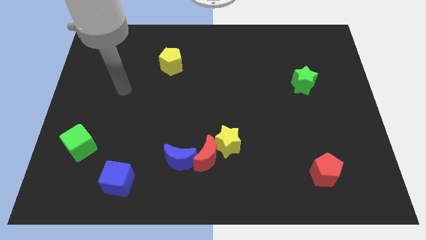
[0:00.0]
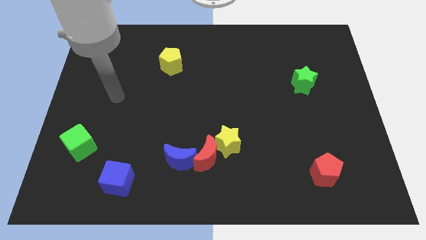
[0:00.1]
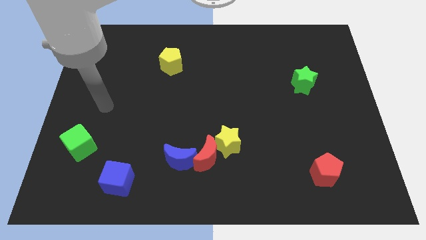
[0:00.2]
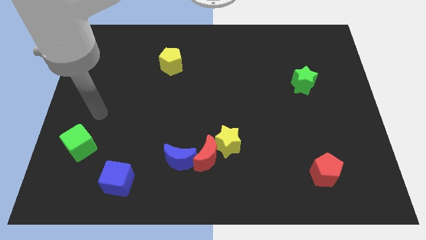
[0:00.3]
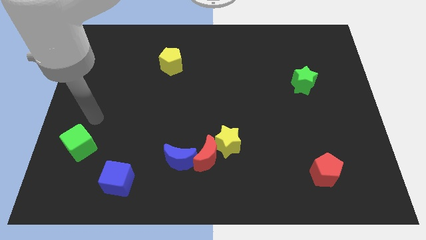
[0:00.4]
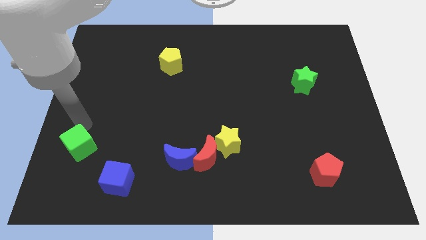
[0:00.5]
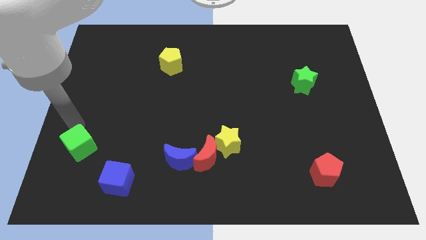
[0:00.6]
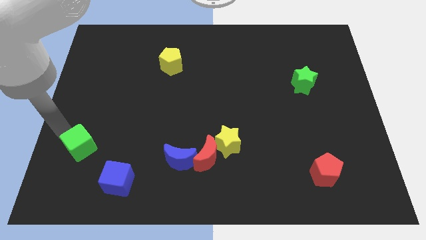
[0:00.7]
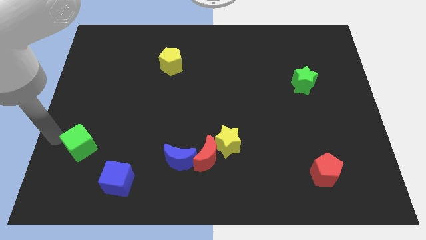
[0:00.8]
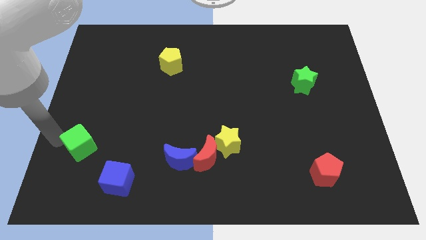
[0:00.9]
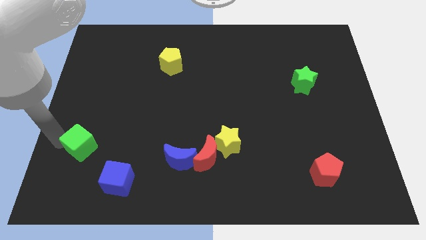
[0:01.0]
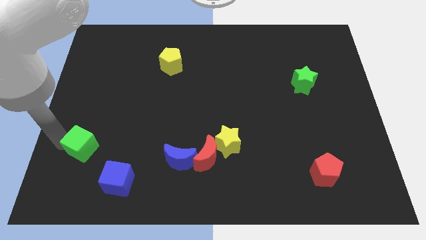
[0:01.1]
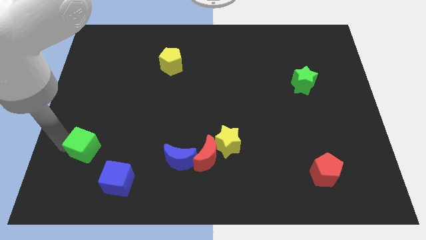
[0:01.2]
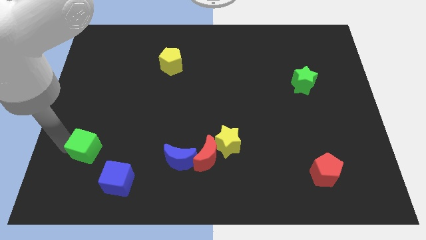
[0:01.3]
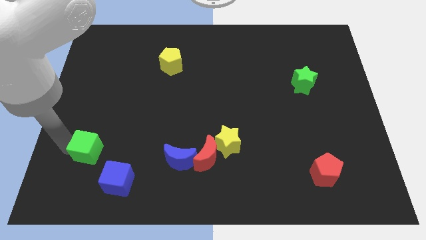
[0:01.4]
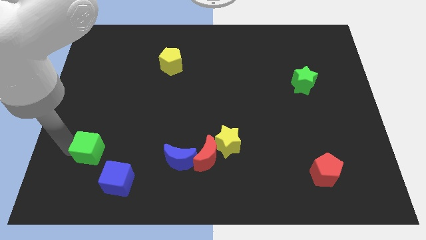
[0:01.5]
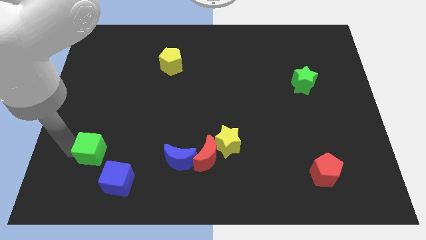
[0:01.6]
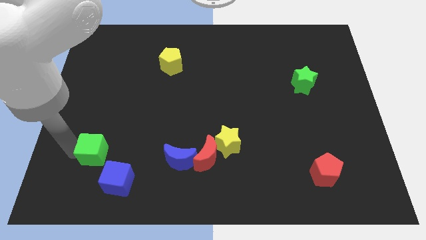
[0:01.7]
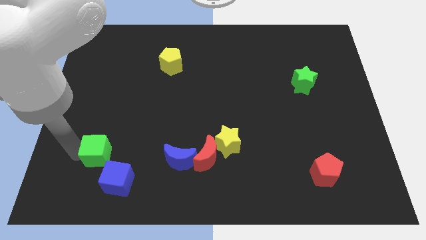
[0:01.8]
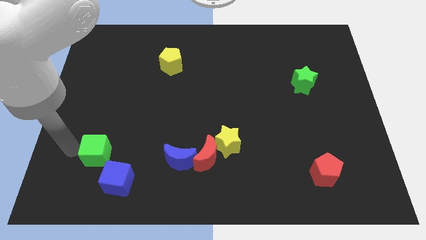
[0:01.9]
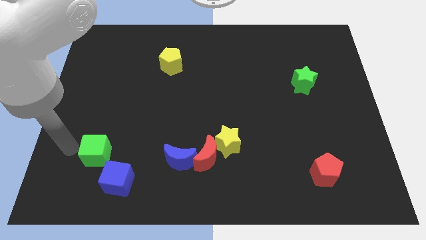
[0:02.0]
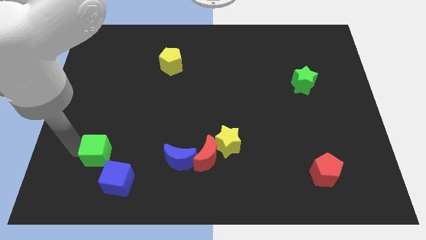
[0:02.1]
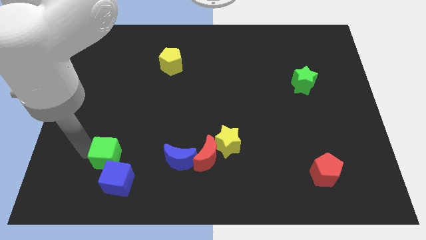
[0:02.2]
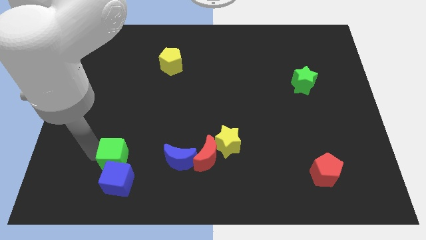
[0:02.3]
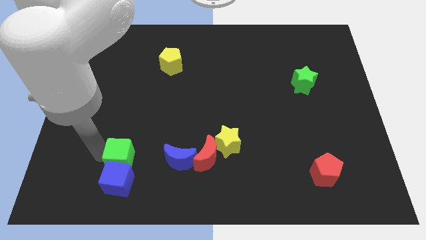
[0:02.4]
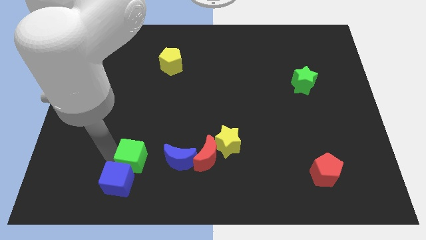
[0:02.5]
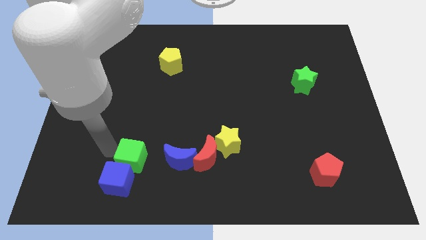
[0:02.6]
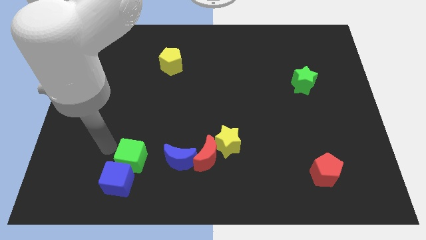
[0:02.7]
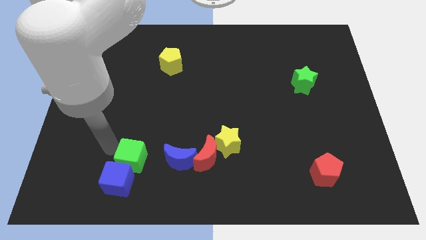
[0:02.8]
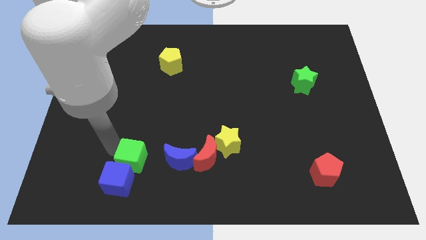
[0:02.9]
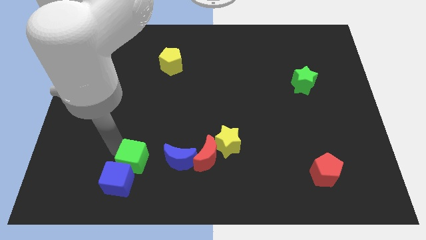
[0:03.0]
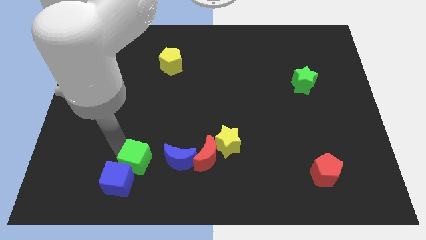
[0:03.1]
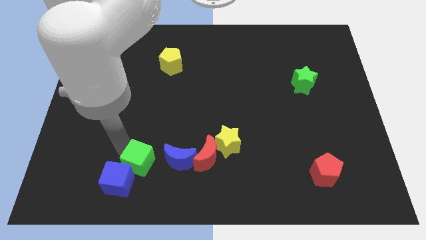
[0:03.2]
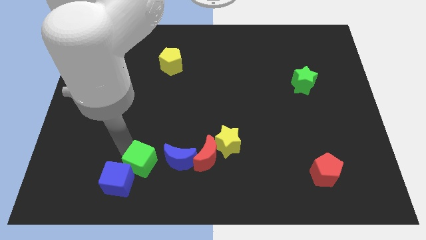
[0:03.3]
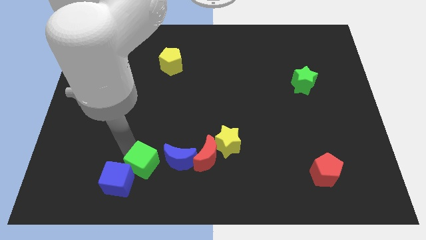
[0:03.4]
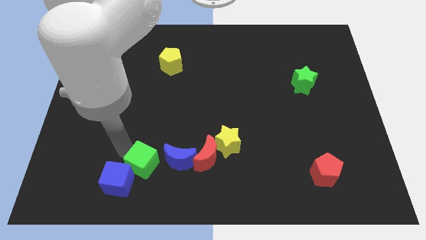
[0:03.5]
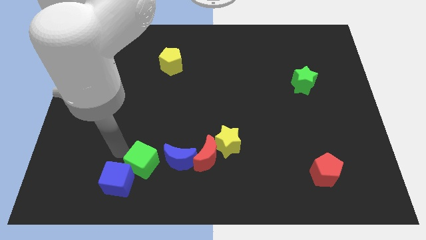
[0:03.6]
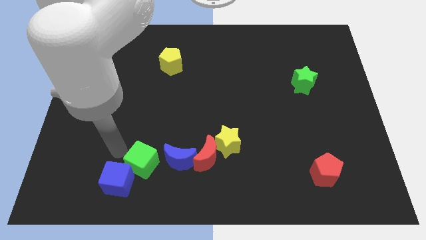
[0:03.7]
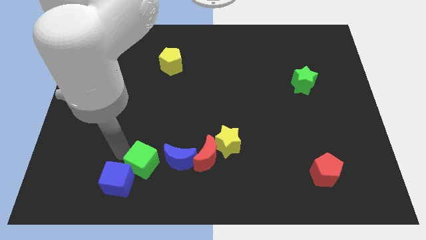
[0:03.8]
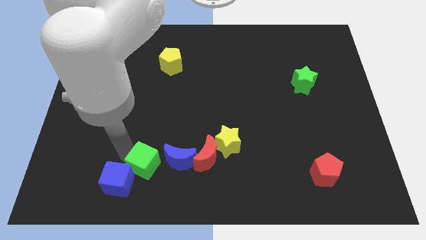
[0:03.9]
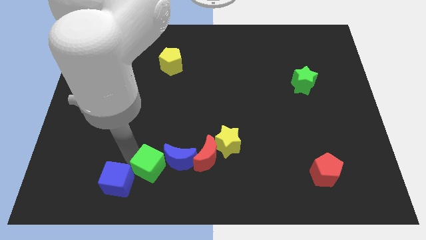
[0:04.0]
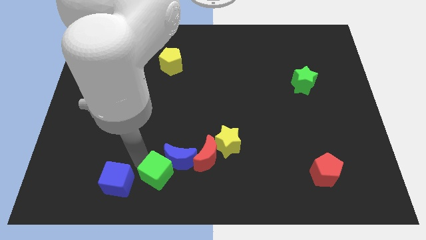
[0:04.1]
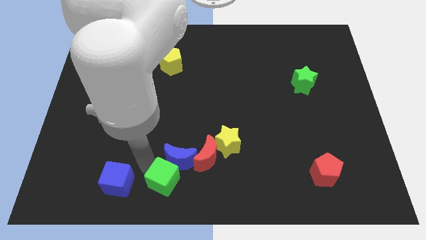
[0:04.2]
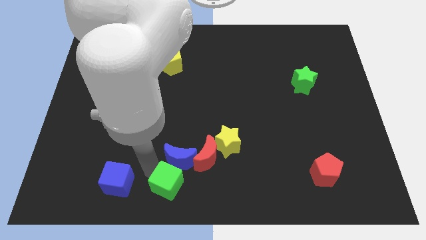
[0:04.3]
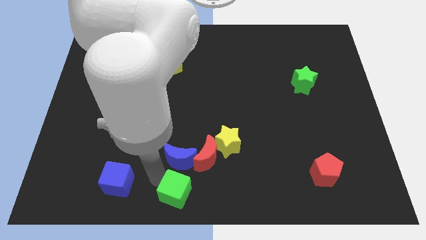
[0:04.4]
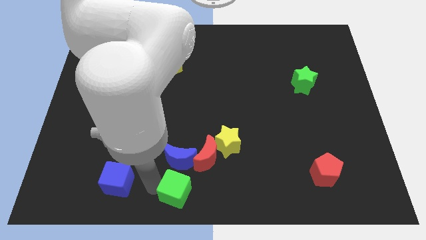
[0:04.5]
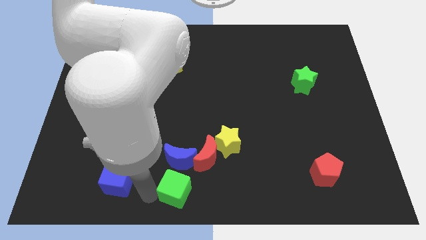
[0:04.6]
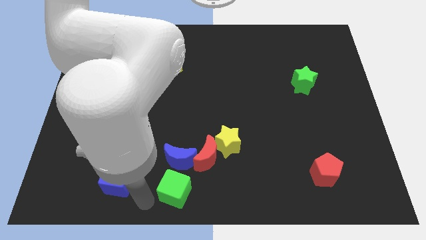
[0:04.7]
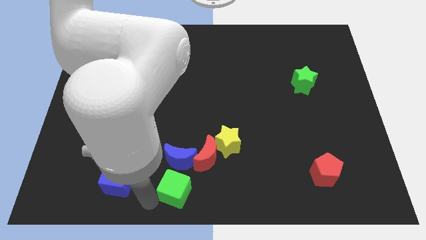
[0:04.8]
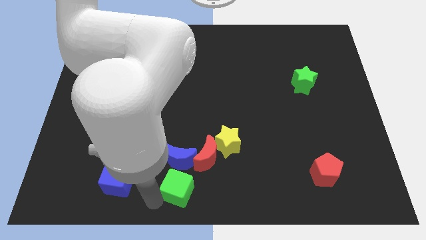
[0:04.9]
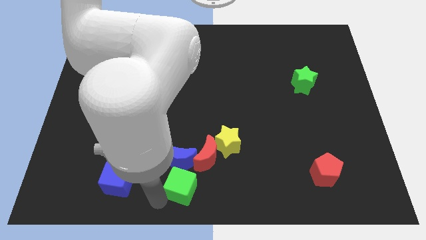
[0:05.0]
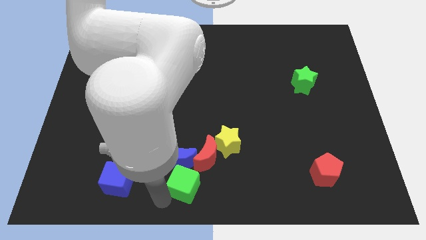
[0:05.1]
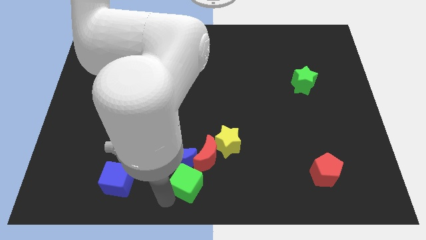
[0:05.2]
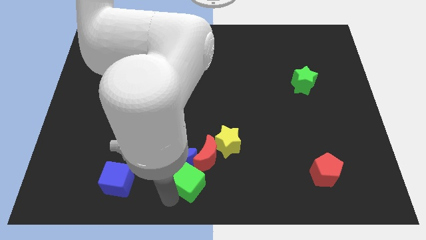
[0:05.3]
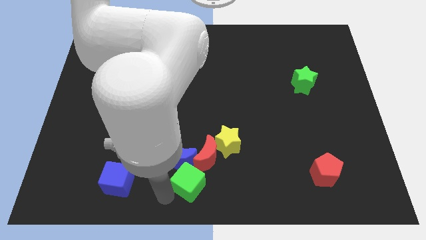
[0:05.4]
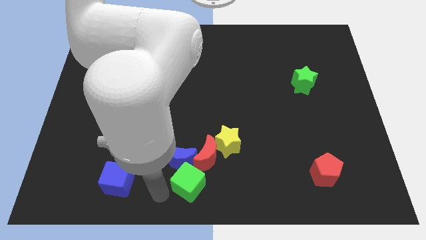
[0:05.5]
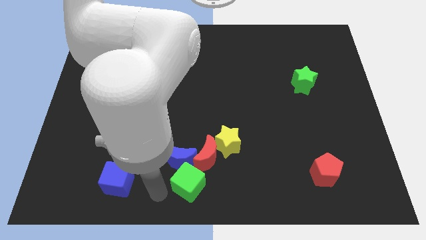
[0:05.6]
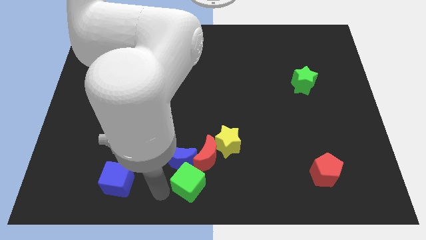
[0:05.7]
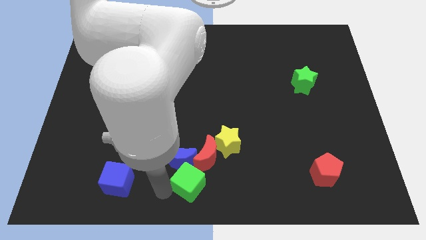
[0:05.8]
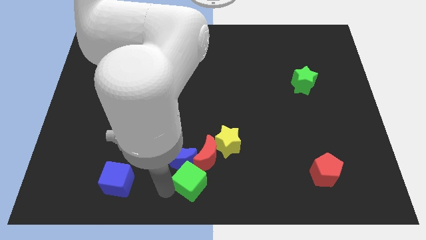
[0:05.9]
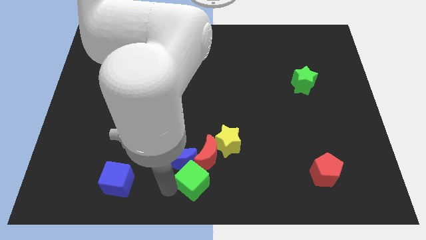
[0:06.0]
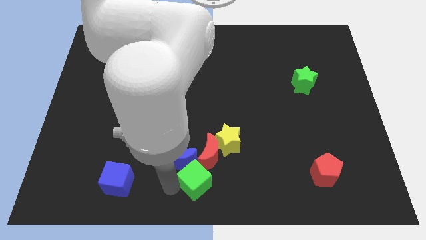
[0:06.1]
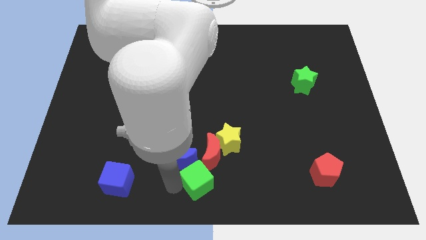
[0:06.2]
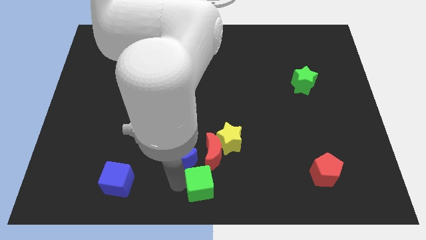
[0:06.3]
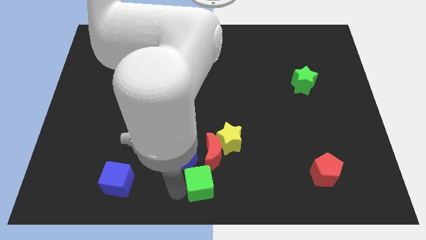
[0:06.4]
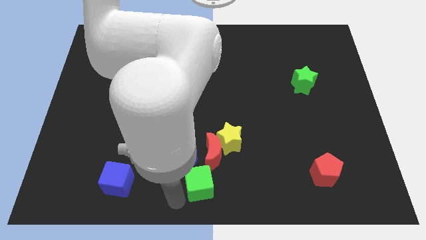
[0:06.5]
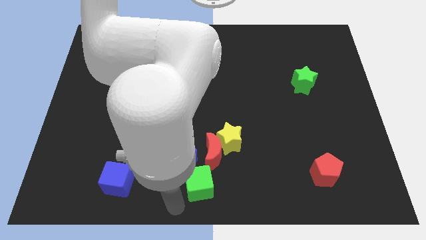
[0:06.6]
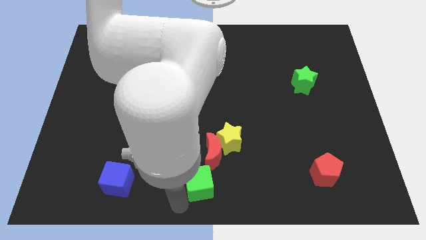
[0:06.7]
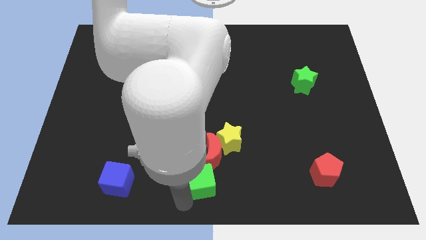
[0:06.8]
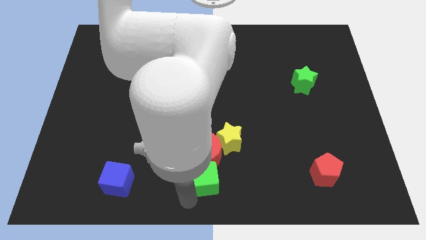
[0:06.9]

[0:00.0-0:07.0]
push the green cube just right of the blue moon
